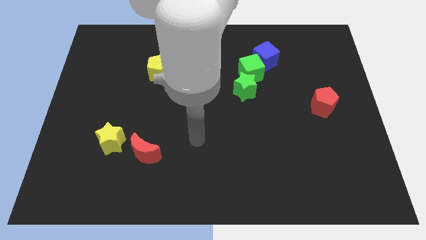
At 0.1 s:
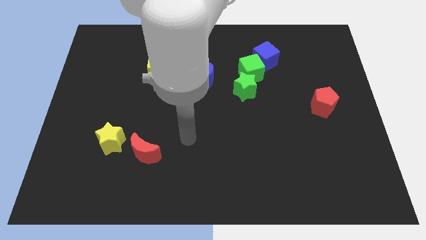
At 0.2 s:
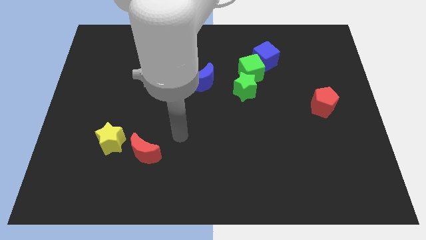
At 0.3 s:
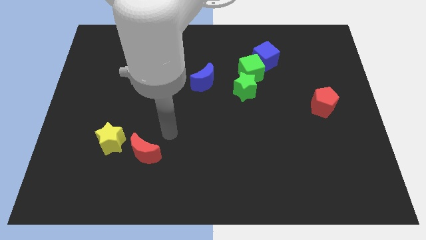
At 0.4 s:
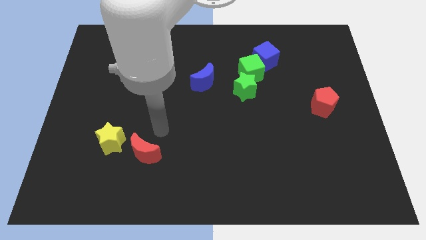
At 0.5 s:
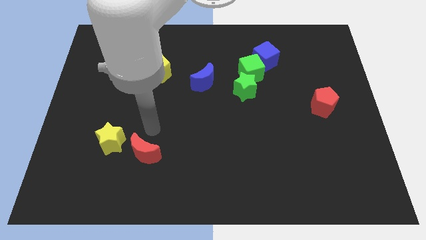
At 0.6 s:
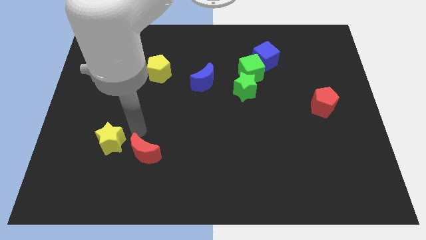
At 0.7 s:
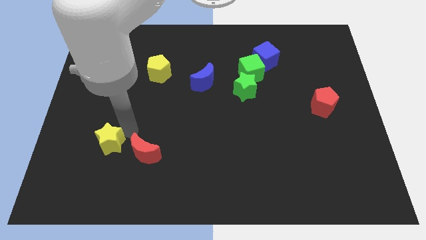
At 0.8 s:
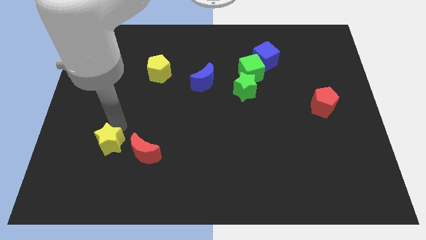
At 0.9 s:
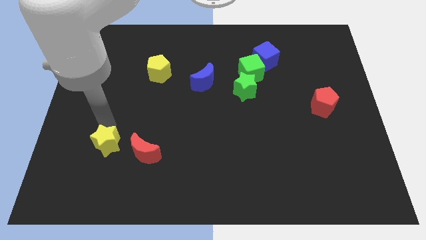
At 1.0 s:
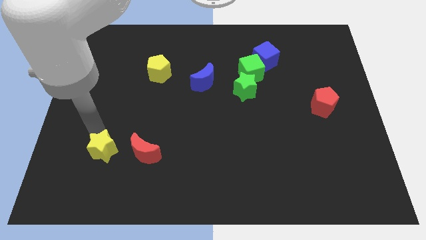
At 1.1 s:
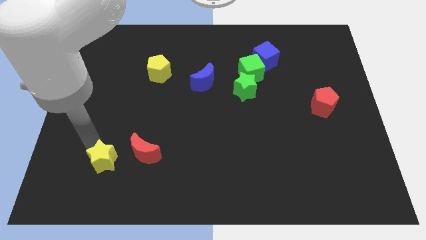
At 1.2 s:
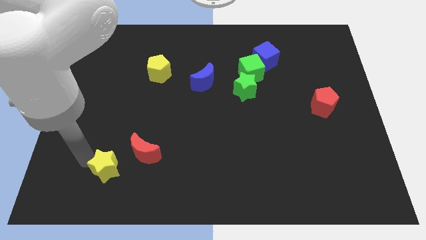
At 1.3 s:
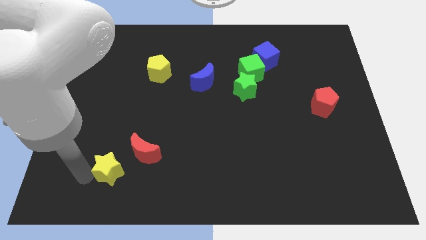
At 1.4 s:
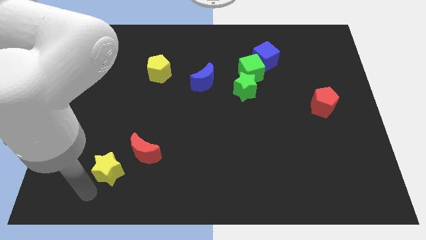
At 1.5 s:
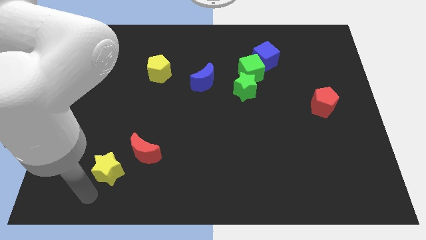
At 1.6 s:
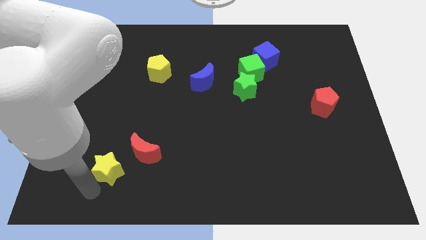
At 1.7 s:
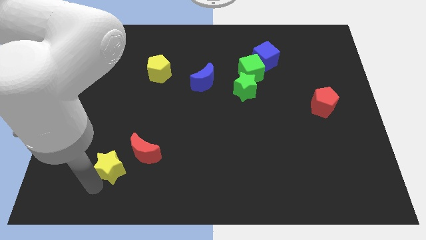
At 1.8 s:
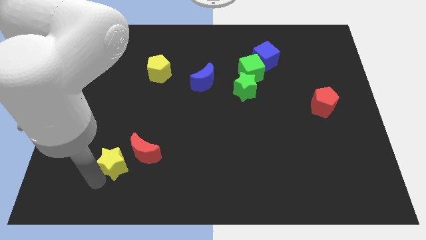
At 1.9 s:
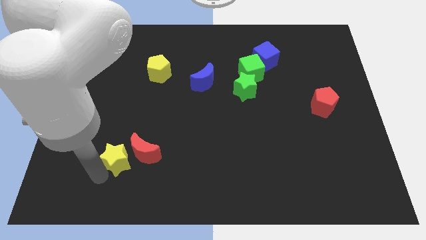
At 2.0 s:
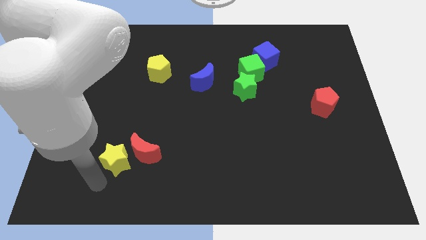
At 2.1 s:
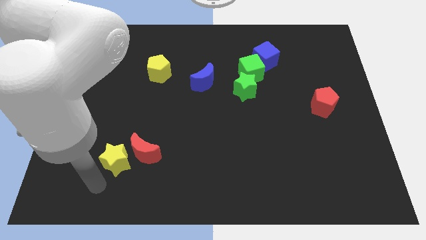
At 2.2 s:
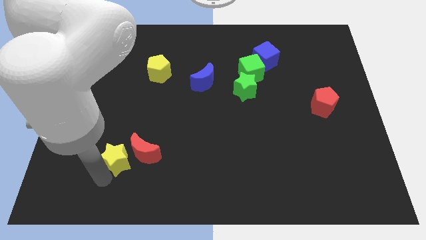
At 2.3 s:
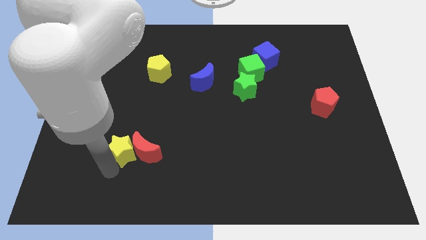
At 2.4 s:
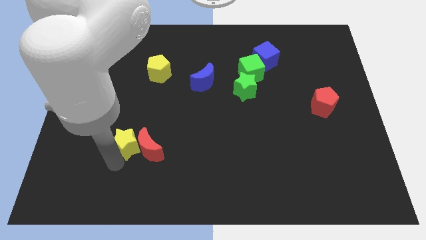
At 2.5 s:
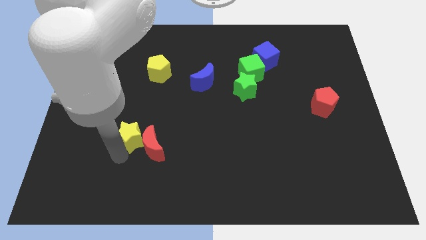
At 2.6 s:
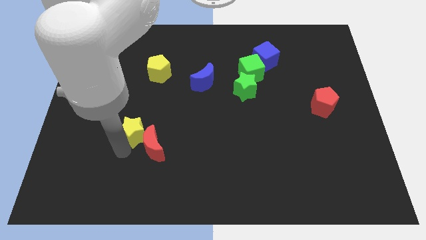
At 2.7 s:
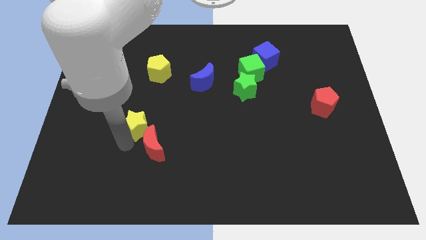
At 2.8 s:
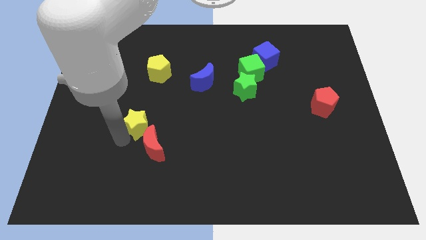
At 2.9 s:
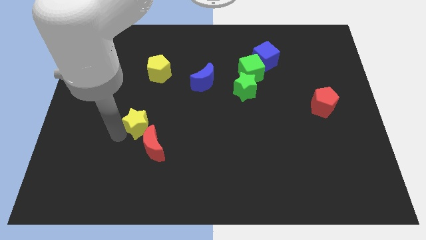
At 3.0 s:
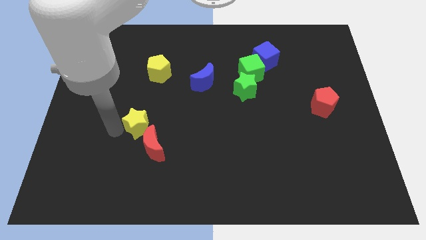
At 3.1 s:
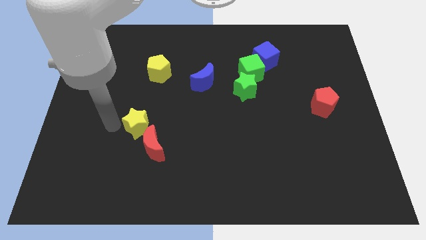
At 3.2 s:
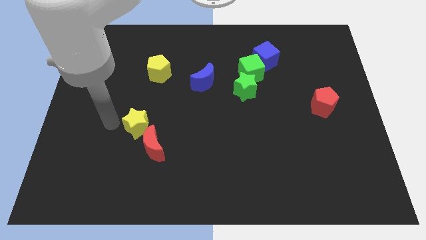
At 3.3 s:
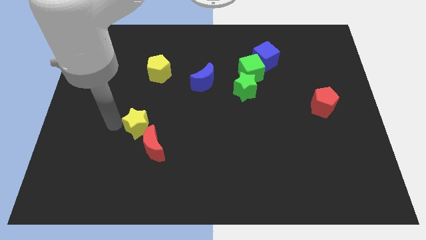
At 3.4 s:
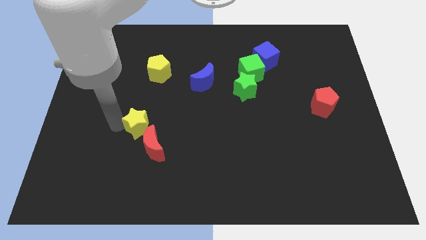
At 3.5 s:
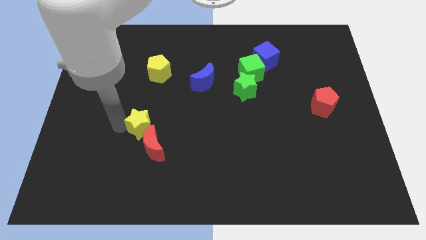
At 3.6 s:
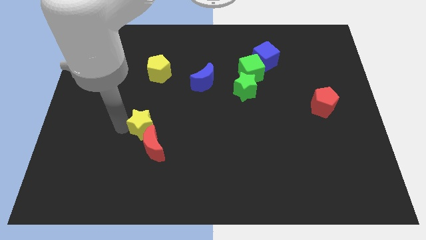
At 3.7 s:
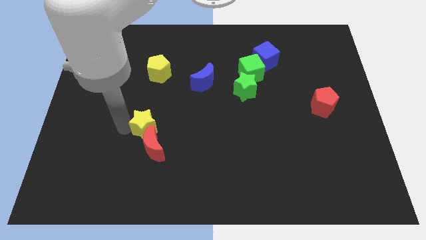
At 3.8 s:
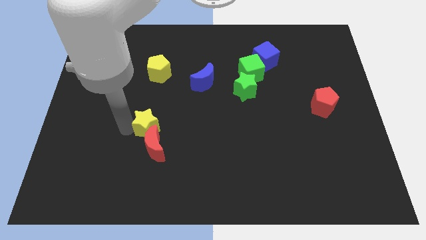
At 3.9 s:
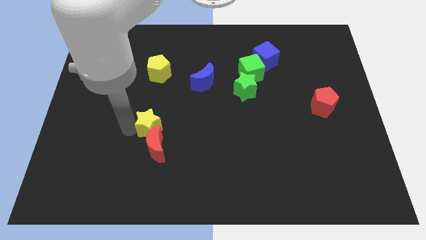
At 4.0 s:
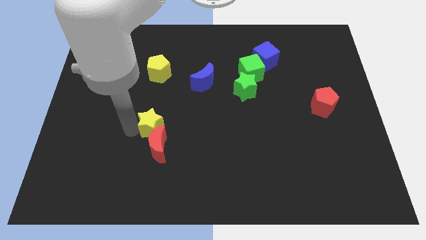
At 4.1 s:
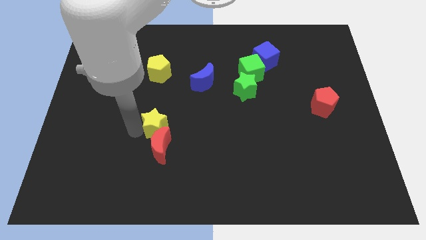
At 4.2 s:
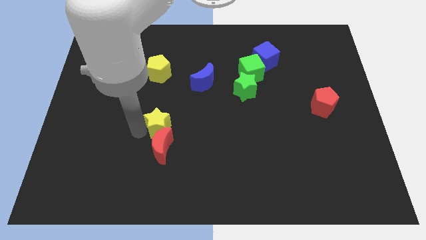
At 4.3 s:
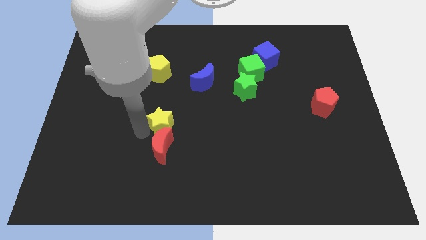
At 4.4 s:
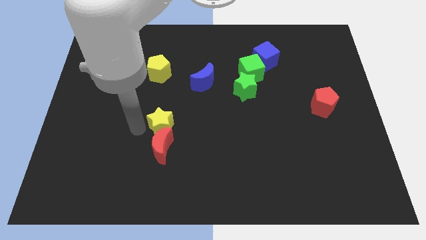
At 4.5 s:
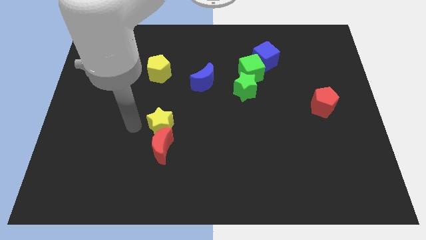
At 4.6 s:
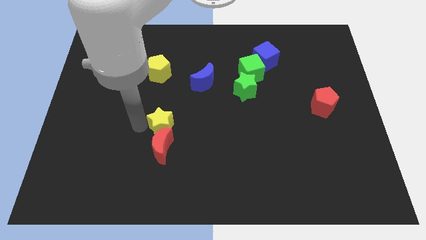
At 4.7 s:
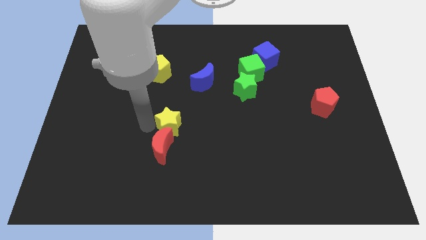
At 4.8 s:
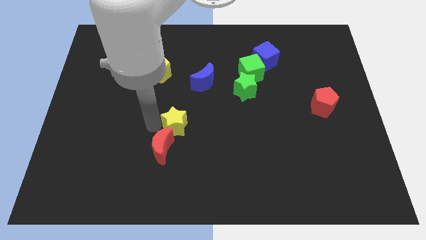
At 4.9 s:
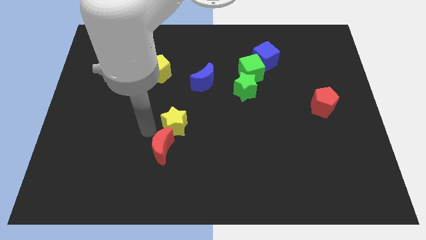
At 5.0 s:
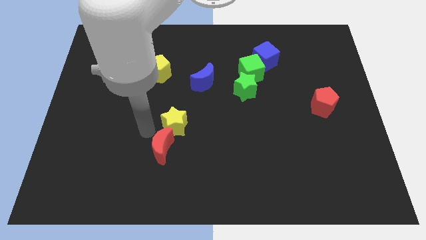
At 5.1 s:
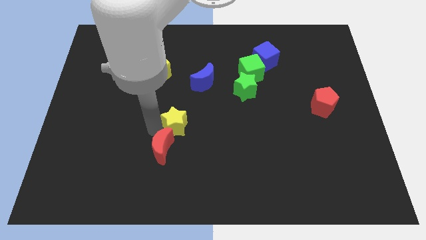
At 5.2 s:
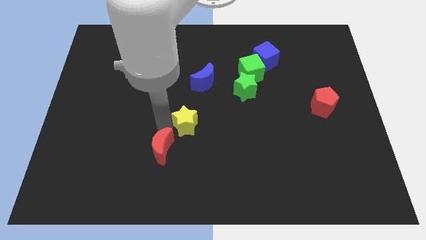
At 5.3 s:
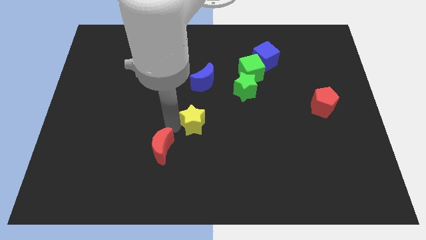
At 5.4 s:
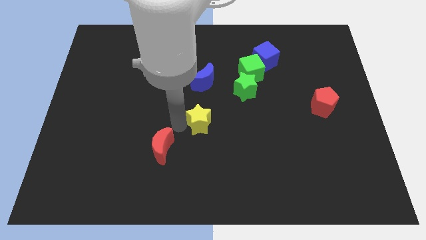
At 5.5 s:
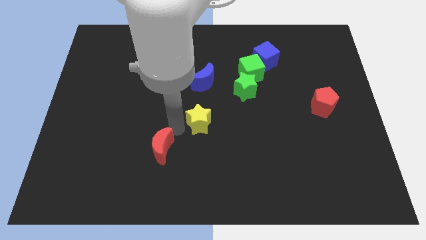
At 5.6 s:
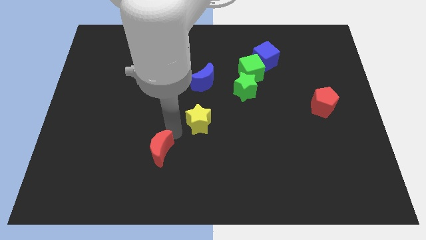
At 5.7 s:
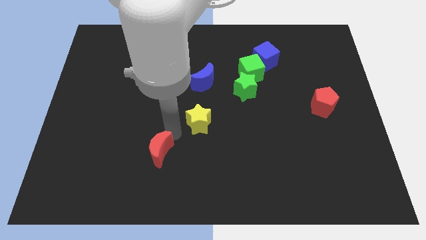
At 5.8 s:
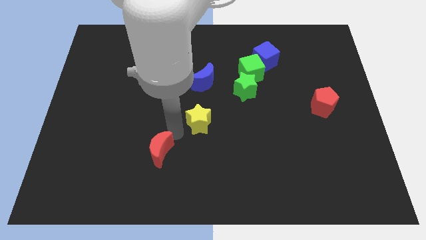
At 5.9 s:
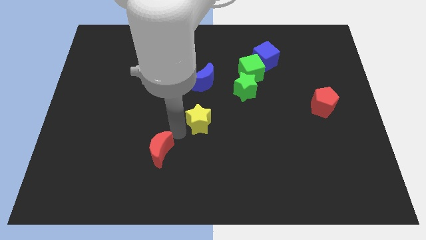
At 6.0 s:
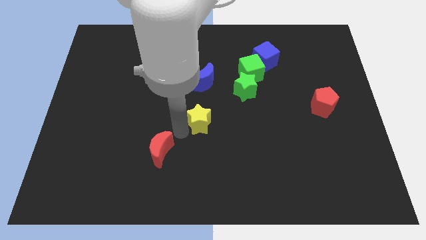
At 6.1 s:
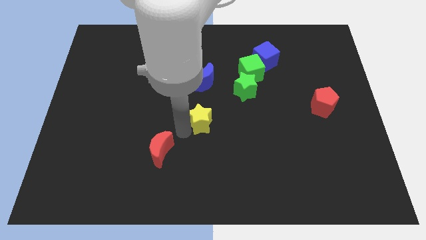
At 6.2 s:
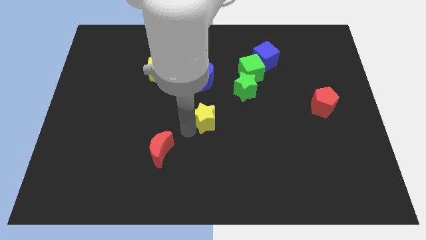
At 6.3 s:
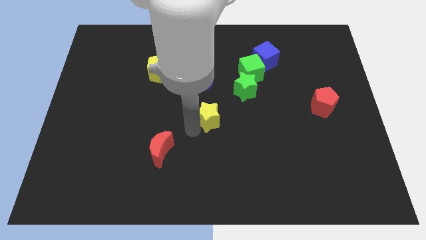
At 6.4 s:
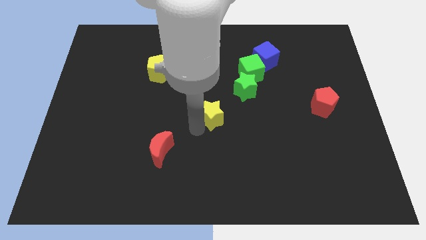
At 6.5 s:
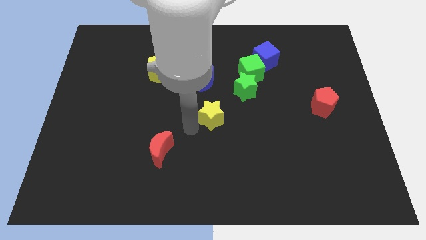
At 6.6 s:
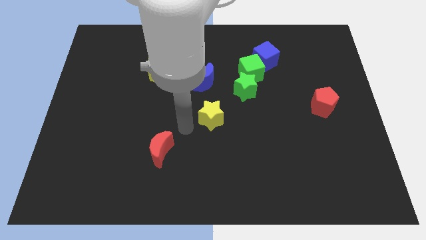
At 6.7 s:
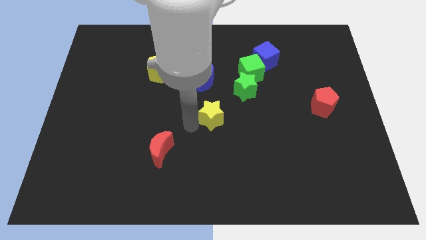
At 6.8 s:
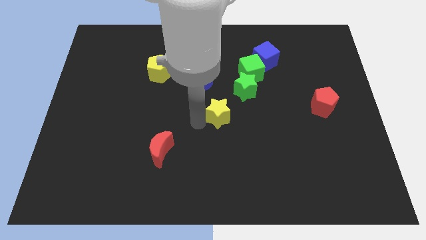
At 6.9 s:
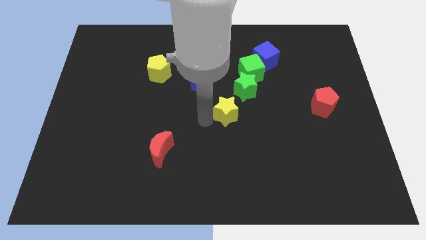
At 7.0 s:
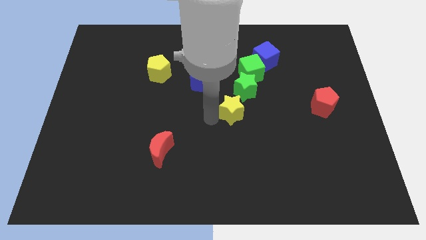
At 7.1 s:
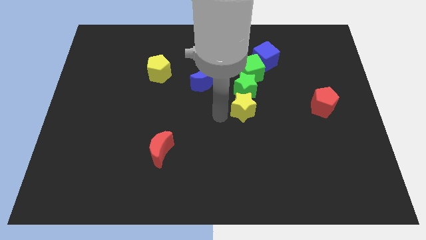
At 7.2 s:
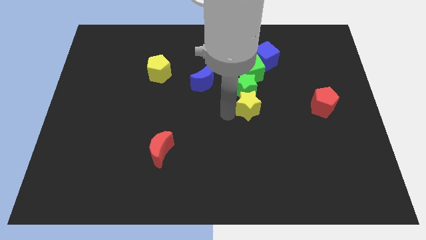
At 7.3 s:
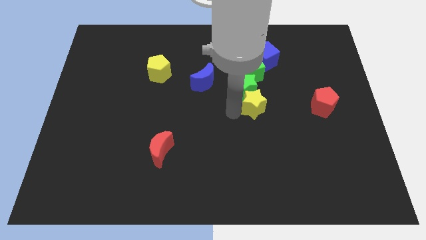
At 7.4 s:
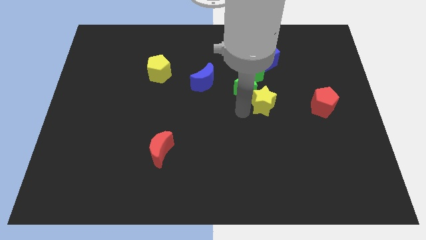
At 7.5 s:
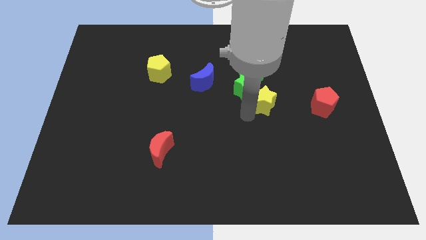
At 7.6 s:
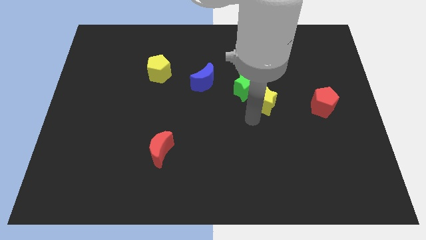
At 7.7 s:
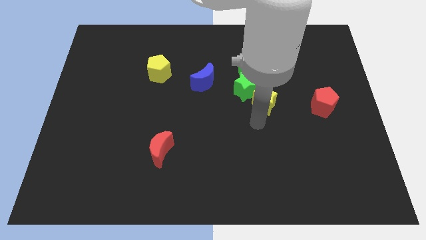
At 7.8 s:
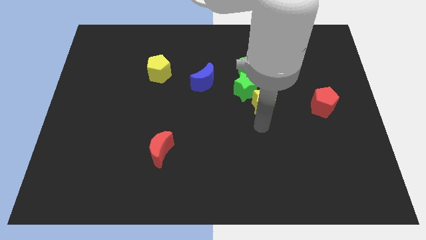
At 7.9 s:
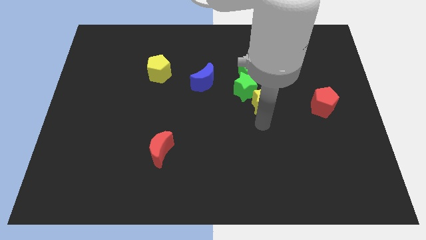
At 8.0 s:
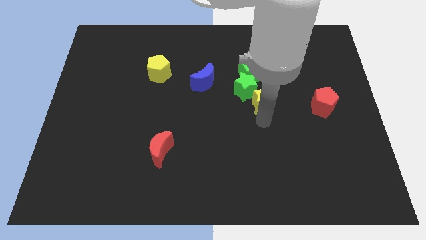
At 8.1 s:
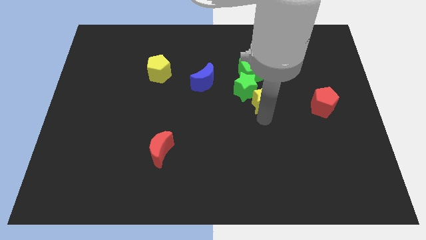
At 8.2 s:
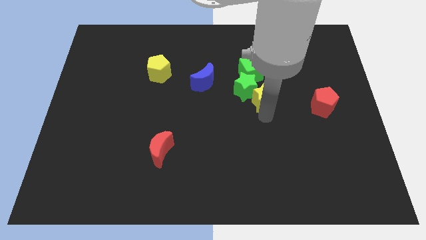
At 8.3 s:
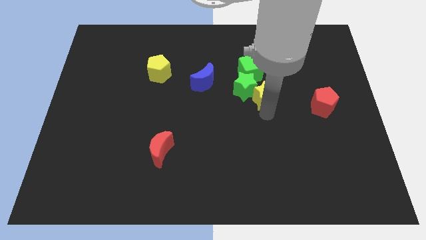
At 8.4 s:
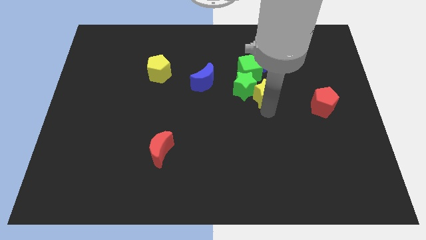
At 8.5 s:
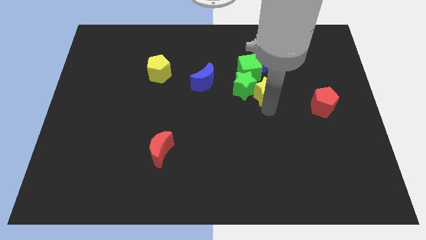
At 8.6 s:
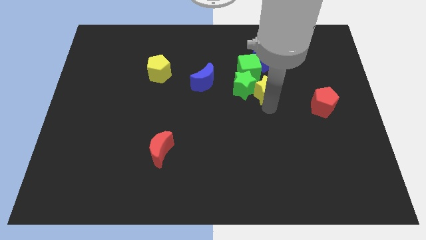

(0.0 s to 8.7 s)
slide the yellow star just right of the blue moon
